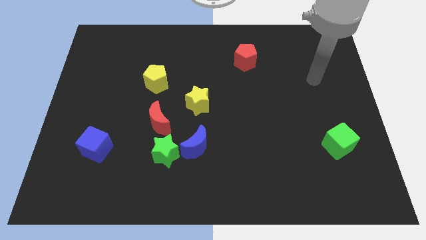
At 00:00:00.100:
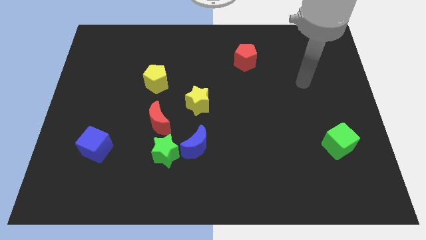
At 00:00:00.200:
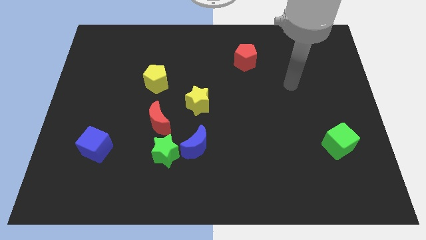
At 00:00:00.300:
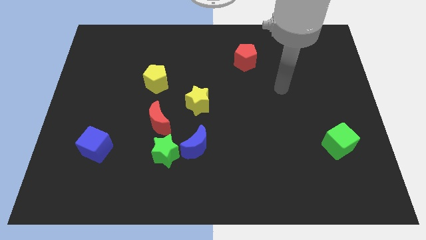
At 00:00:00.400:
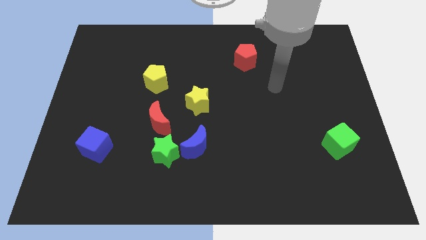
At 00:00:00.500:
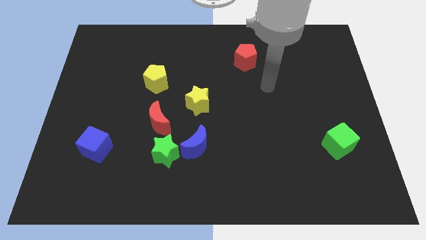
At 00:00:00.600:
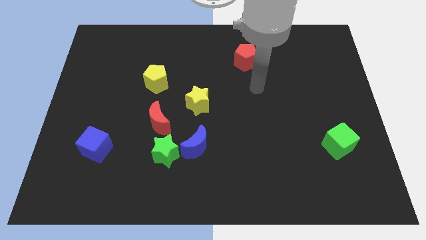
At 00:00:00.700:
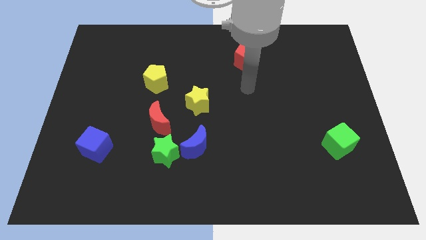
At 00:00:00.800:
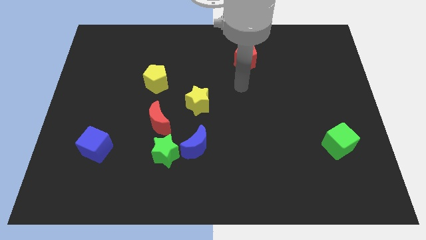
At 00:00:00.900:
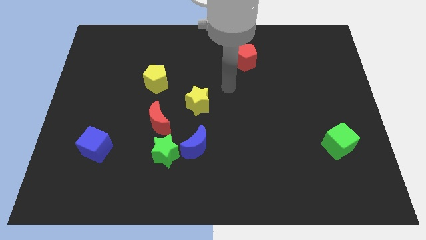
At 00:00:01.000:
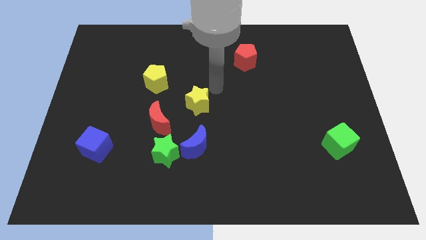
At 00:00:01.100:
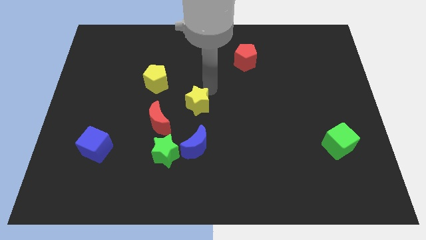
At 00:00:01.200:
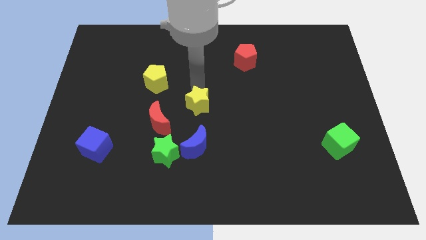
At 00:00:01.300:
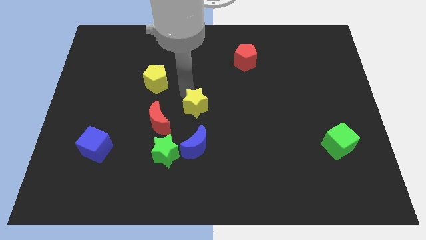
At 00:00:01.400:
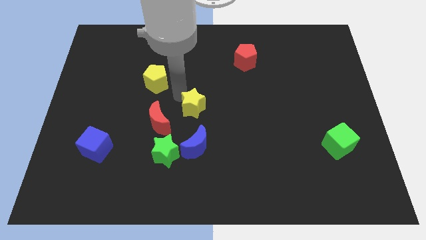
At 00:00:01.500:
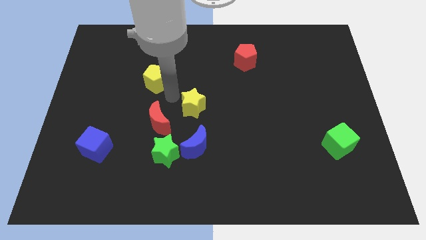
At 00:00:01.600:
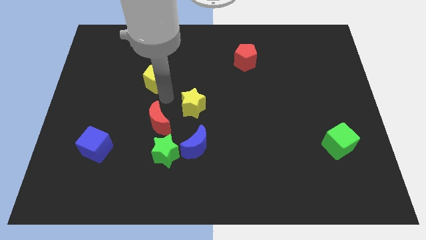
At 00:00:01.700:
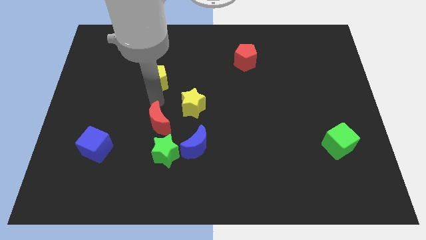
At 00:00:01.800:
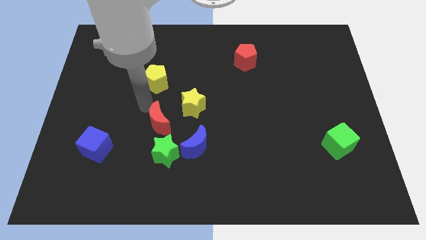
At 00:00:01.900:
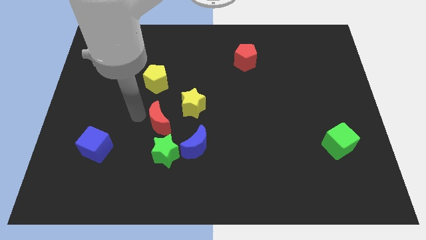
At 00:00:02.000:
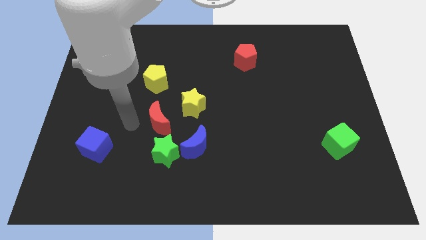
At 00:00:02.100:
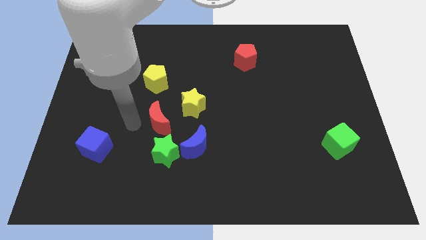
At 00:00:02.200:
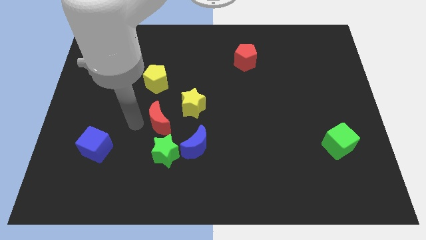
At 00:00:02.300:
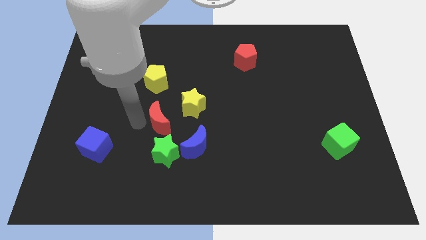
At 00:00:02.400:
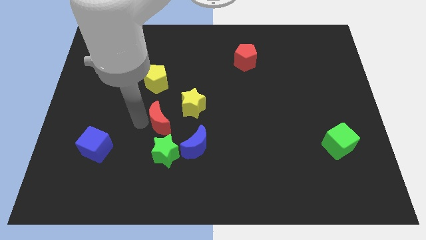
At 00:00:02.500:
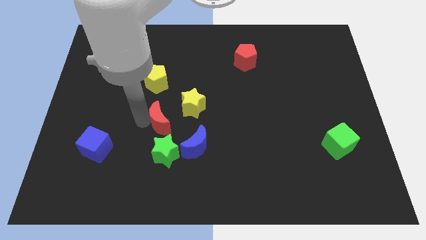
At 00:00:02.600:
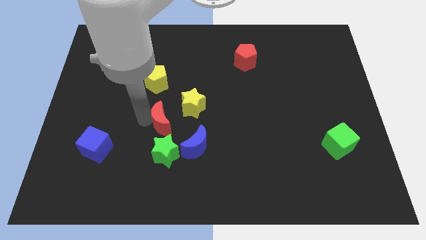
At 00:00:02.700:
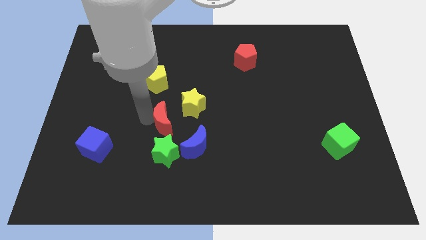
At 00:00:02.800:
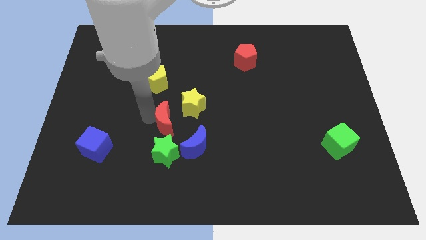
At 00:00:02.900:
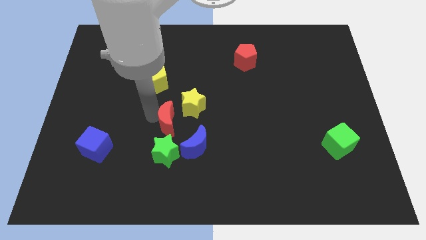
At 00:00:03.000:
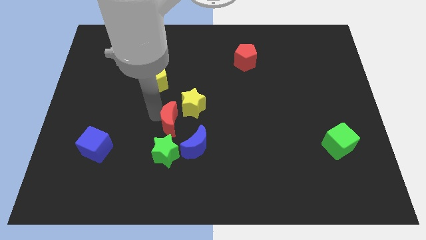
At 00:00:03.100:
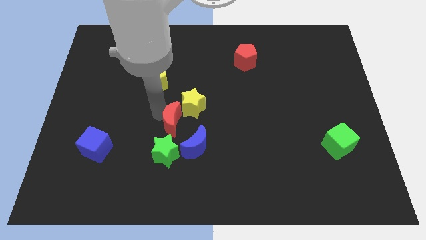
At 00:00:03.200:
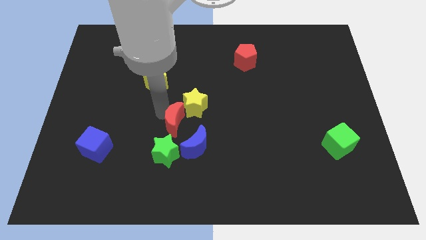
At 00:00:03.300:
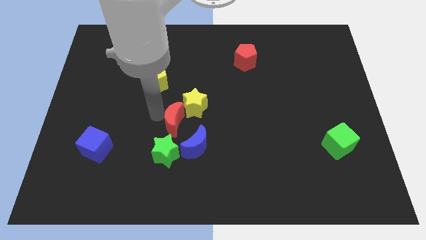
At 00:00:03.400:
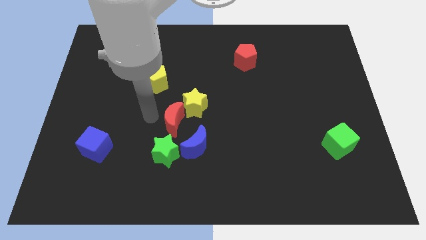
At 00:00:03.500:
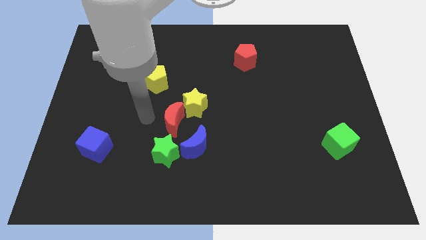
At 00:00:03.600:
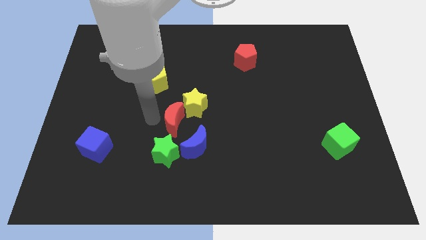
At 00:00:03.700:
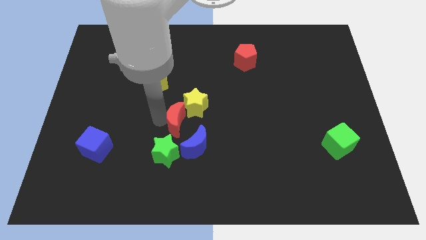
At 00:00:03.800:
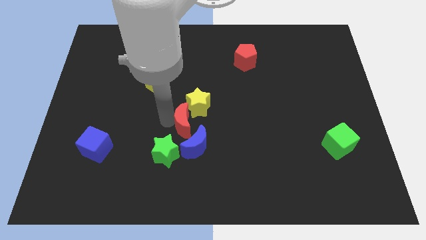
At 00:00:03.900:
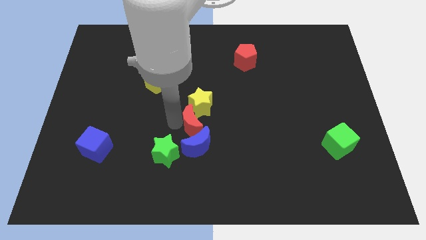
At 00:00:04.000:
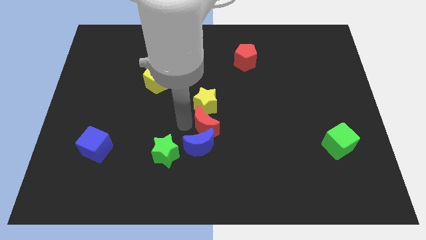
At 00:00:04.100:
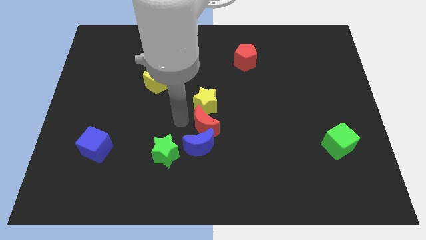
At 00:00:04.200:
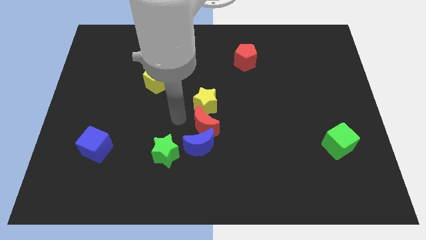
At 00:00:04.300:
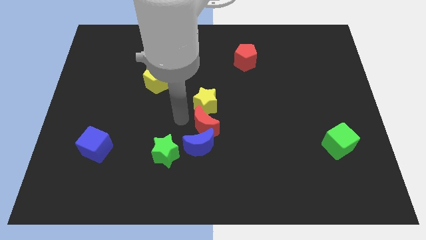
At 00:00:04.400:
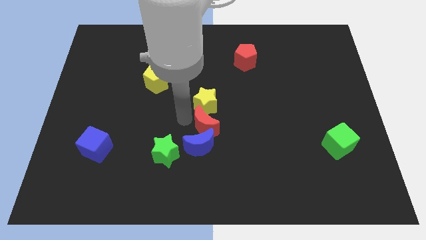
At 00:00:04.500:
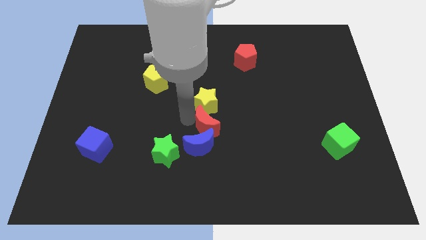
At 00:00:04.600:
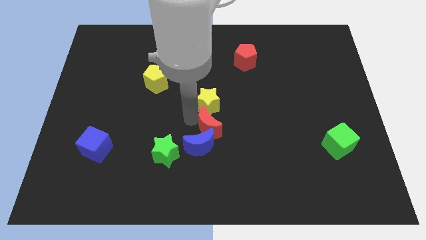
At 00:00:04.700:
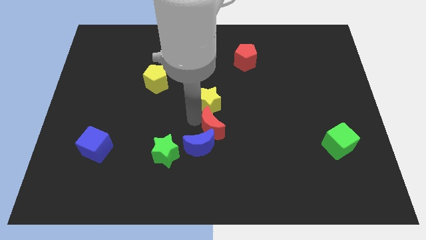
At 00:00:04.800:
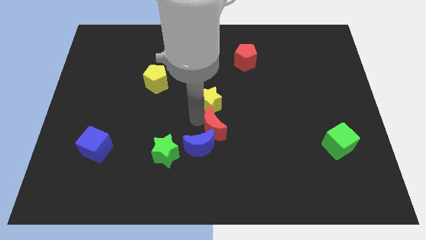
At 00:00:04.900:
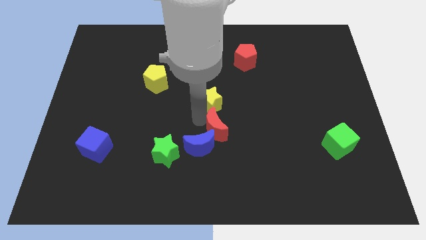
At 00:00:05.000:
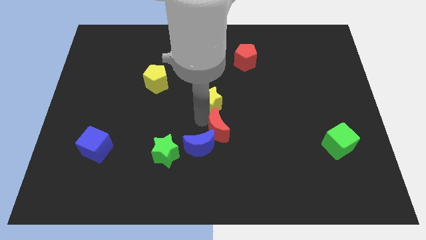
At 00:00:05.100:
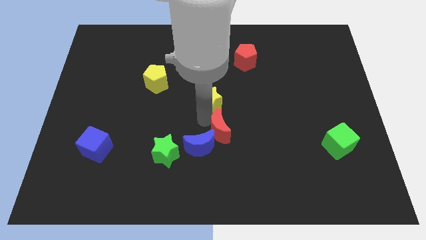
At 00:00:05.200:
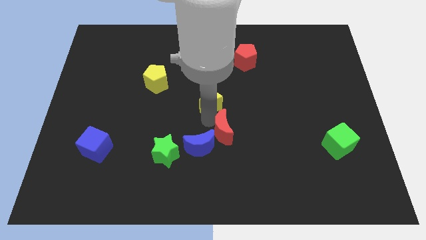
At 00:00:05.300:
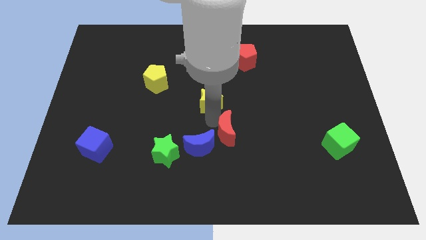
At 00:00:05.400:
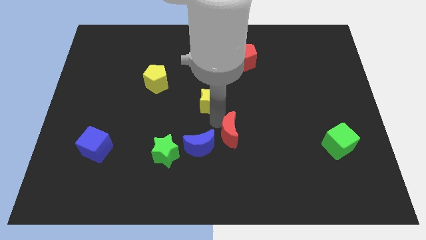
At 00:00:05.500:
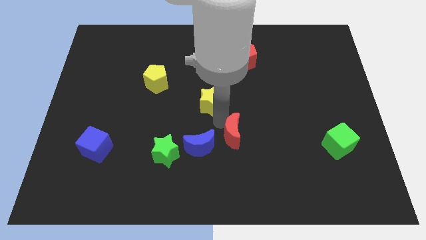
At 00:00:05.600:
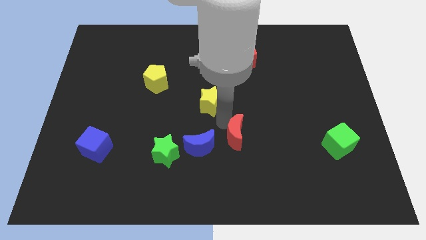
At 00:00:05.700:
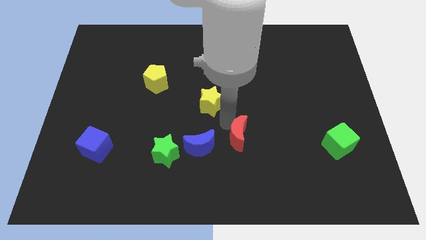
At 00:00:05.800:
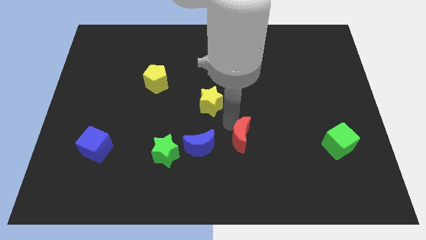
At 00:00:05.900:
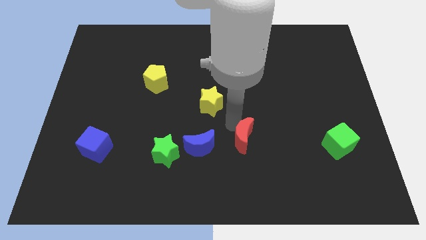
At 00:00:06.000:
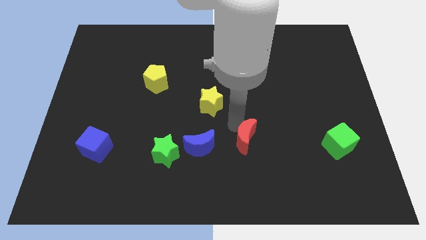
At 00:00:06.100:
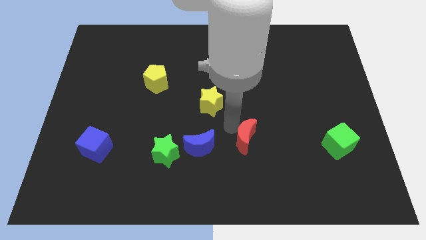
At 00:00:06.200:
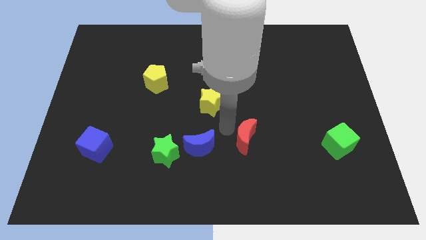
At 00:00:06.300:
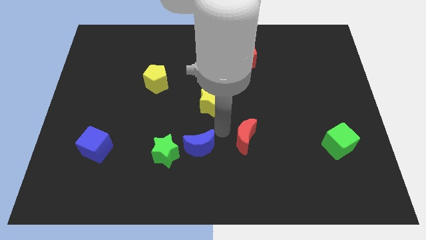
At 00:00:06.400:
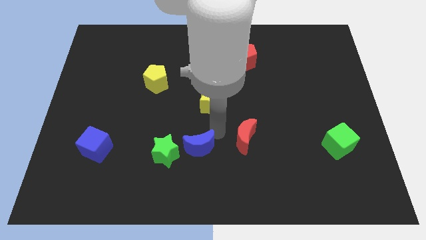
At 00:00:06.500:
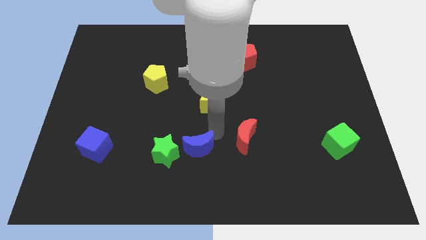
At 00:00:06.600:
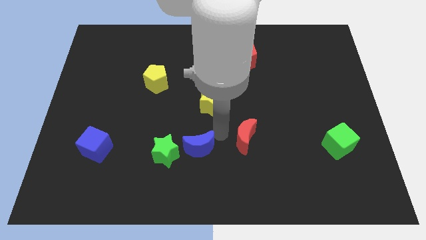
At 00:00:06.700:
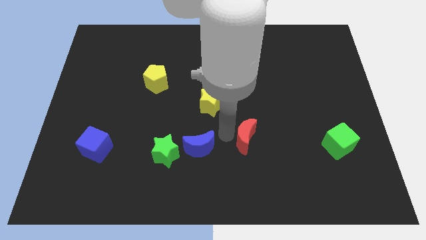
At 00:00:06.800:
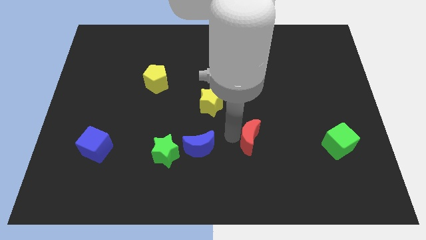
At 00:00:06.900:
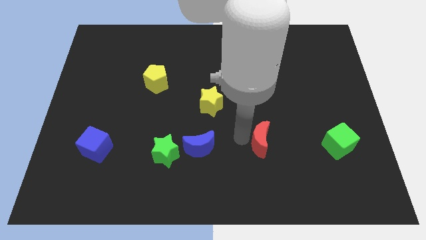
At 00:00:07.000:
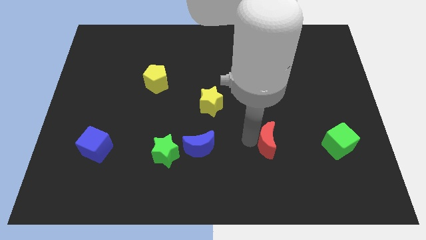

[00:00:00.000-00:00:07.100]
push the red moon to the left of the green cube
